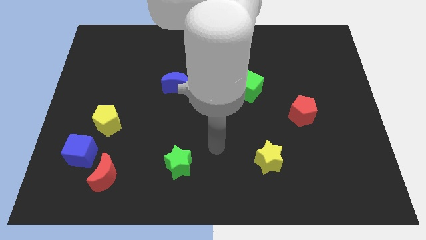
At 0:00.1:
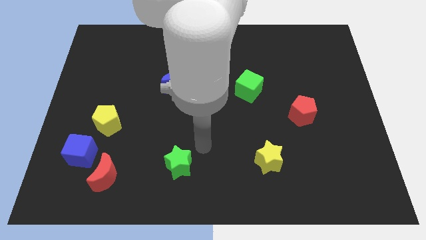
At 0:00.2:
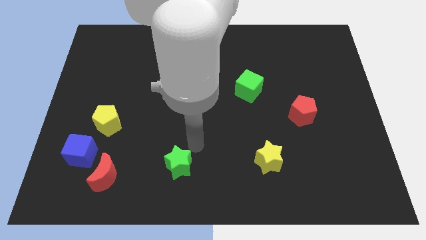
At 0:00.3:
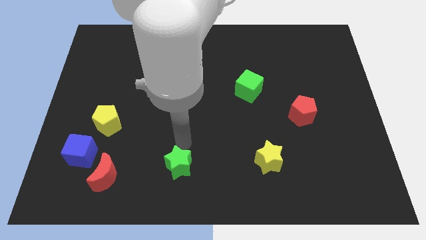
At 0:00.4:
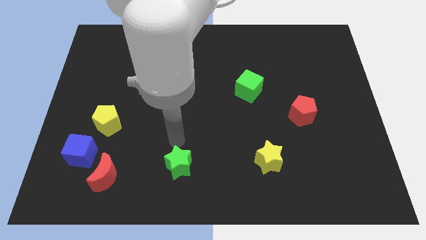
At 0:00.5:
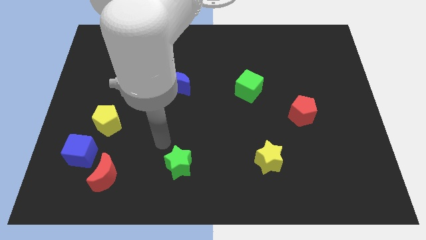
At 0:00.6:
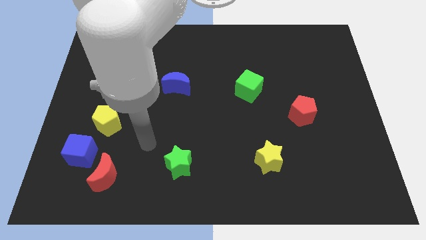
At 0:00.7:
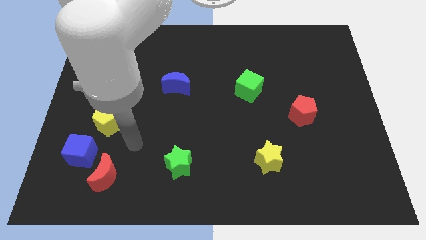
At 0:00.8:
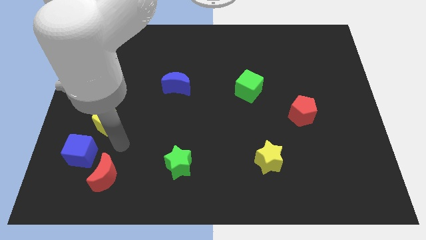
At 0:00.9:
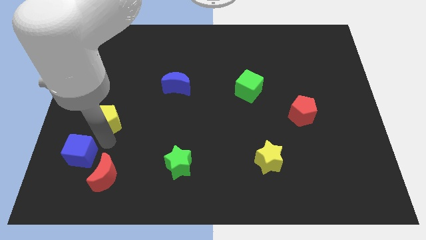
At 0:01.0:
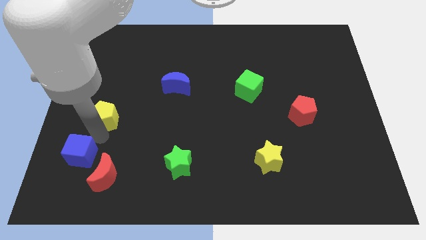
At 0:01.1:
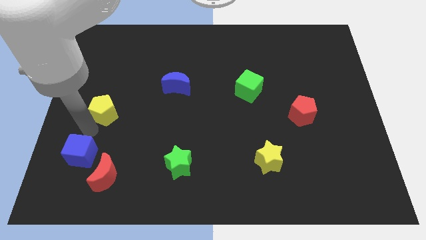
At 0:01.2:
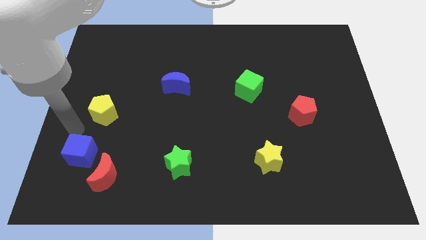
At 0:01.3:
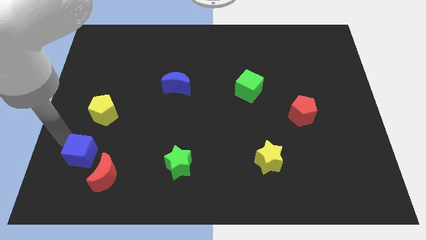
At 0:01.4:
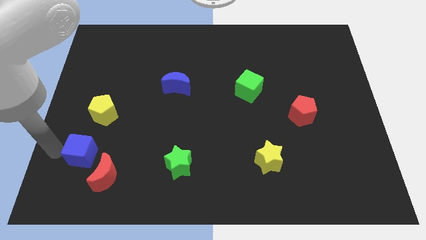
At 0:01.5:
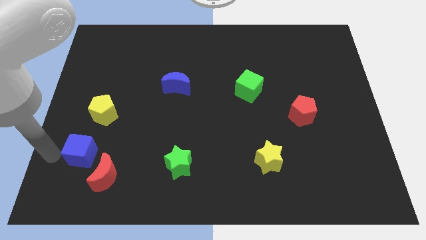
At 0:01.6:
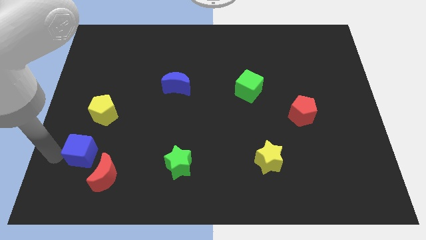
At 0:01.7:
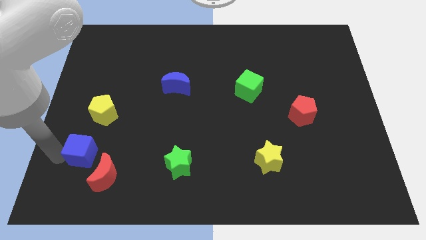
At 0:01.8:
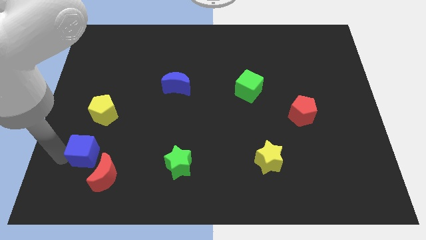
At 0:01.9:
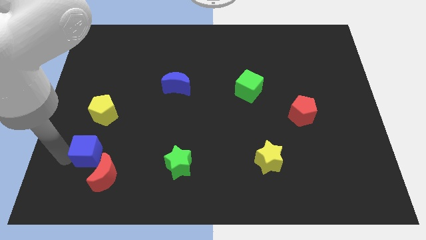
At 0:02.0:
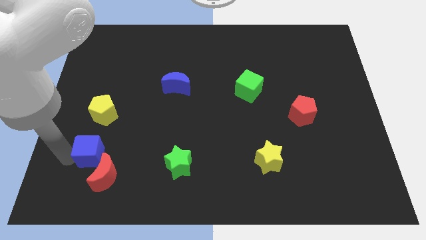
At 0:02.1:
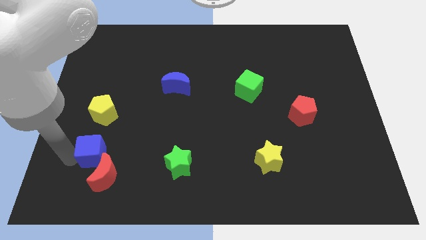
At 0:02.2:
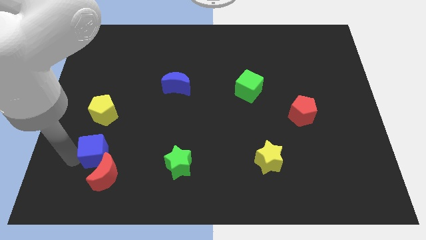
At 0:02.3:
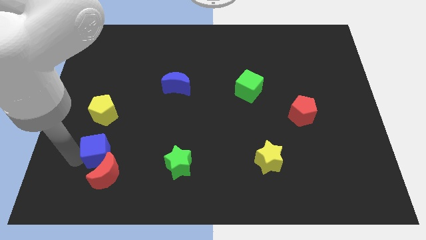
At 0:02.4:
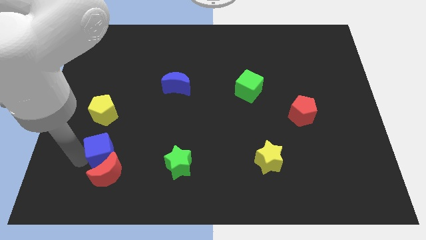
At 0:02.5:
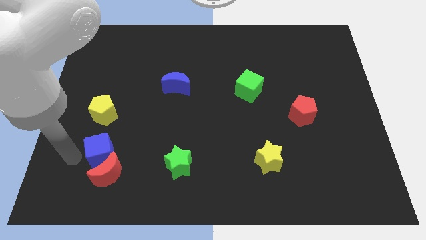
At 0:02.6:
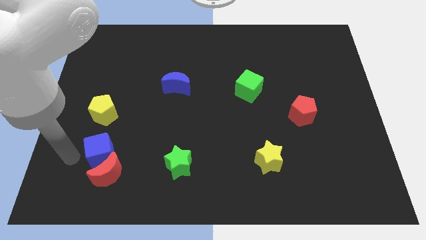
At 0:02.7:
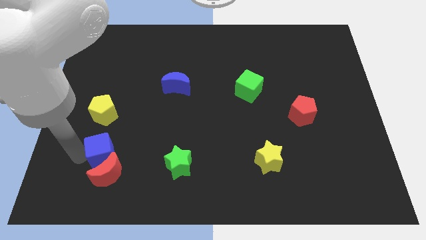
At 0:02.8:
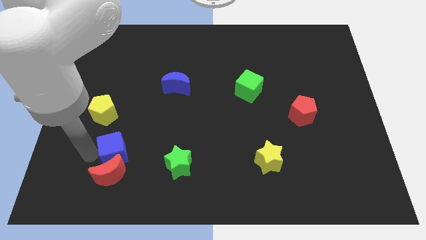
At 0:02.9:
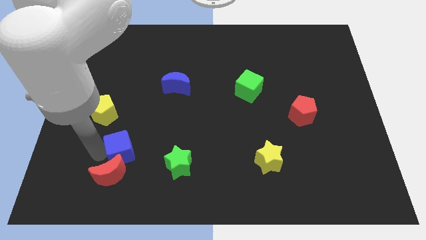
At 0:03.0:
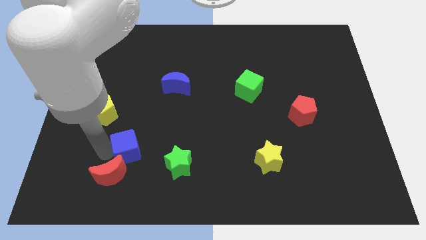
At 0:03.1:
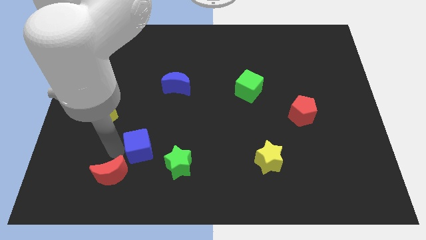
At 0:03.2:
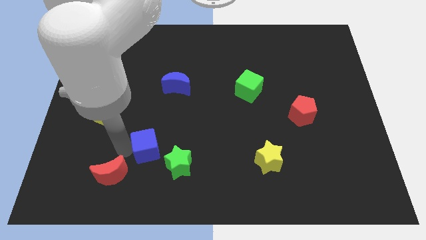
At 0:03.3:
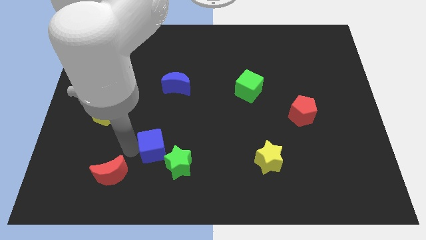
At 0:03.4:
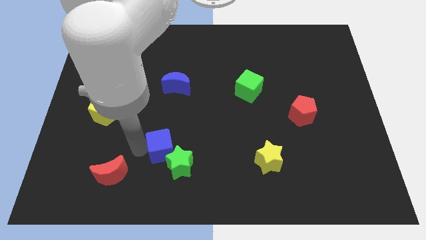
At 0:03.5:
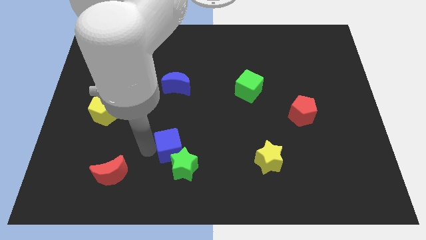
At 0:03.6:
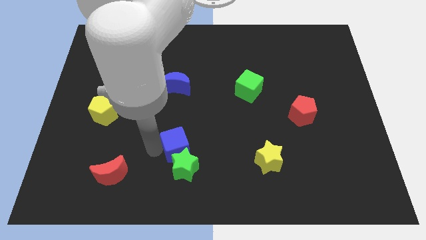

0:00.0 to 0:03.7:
move the blue cube right

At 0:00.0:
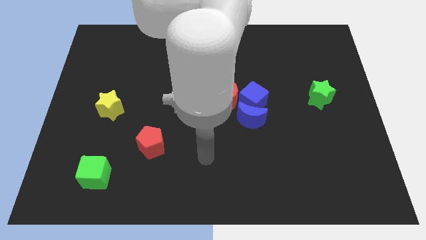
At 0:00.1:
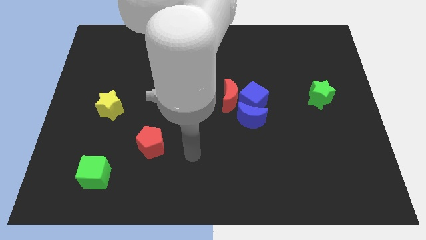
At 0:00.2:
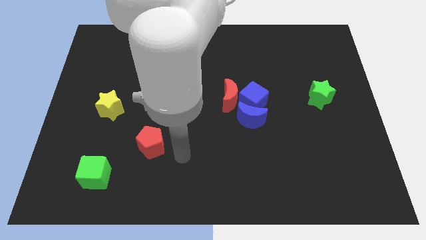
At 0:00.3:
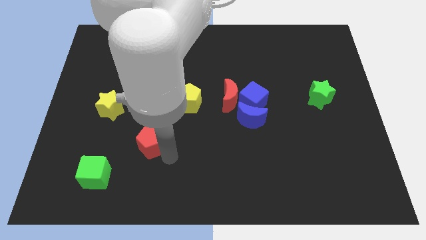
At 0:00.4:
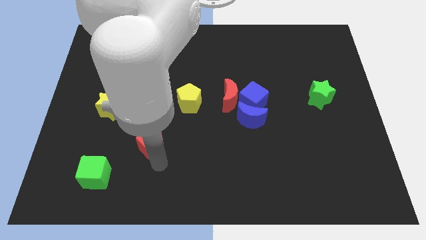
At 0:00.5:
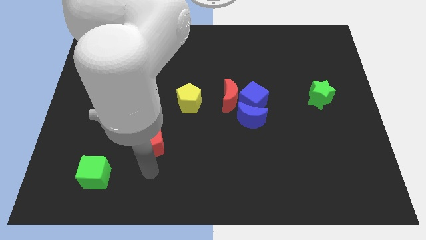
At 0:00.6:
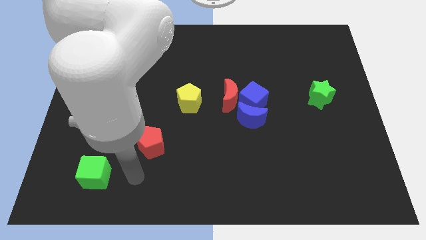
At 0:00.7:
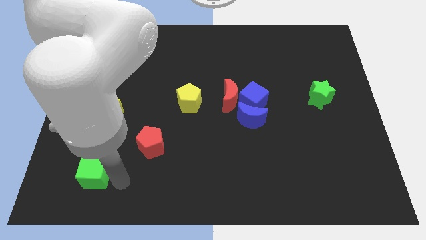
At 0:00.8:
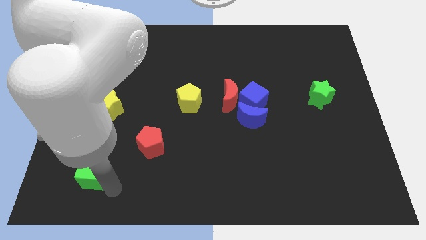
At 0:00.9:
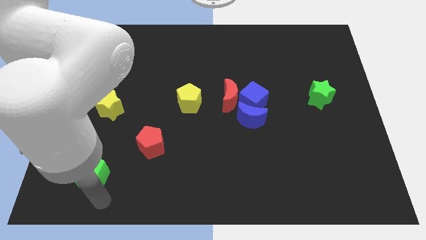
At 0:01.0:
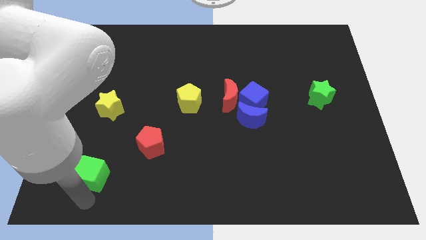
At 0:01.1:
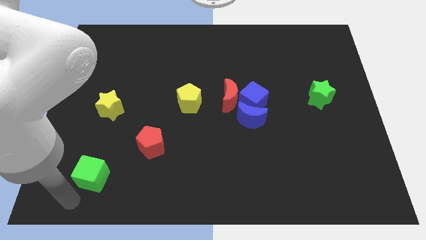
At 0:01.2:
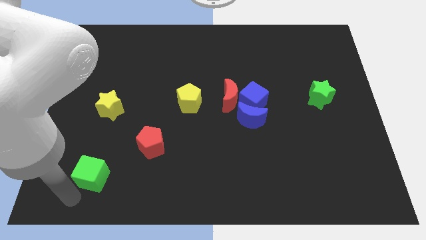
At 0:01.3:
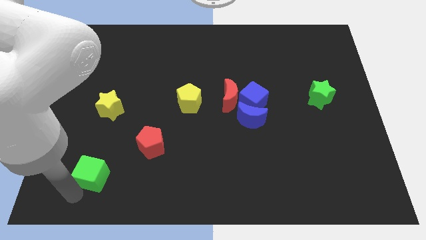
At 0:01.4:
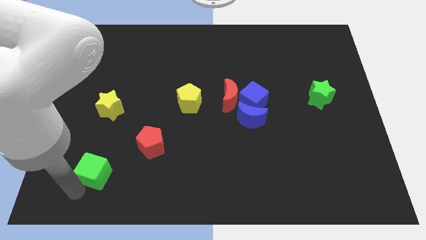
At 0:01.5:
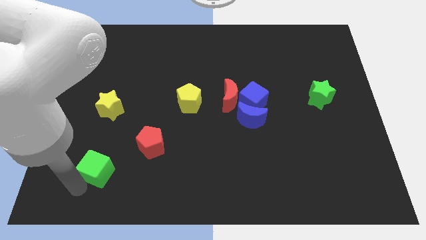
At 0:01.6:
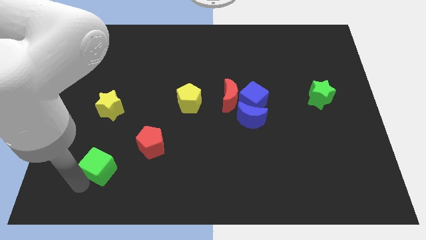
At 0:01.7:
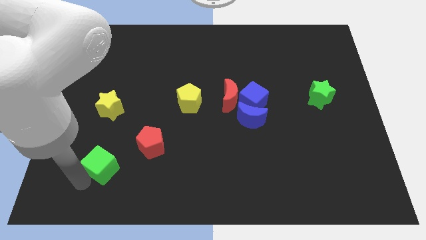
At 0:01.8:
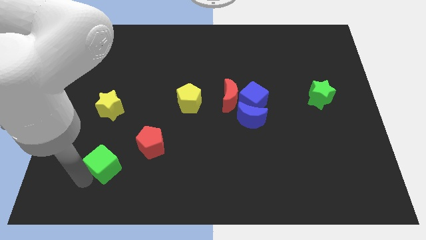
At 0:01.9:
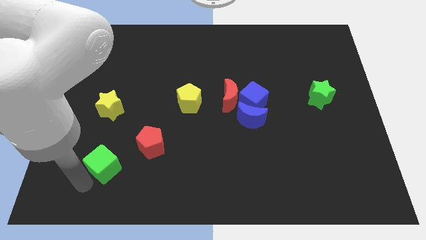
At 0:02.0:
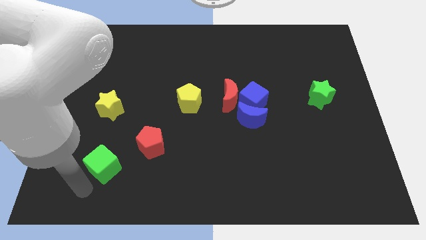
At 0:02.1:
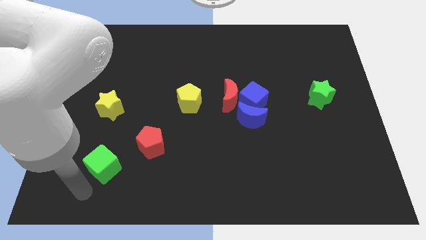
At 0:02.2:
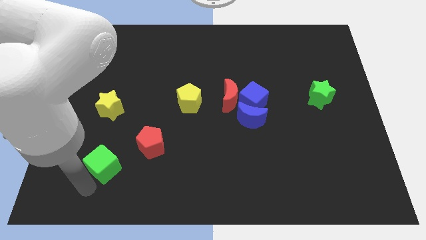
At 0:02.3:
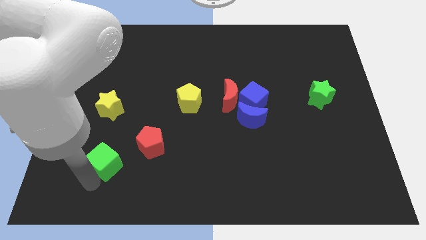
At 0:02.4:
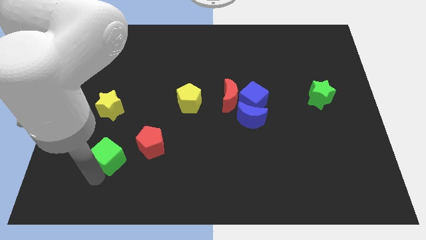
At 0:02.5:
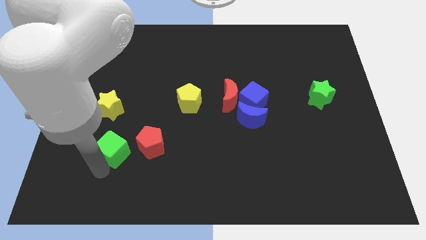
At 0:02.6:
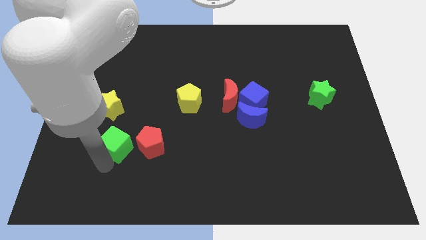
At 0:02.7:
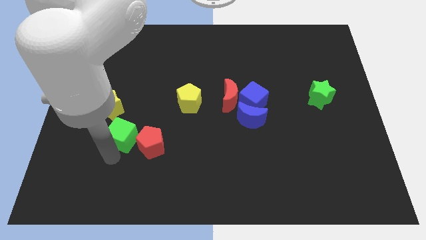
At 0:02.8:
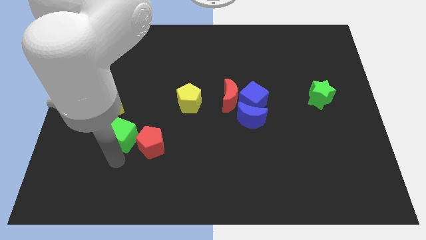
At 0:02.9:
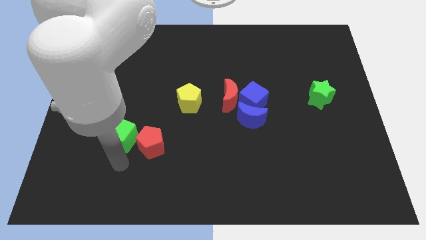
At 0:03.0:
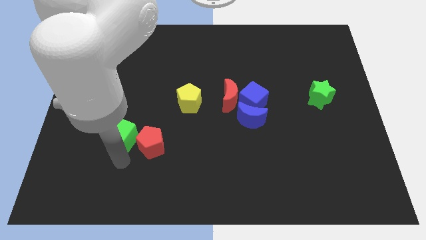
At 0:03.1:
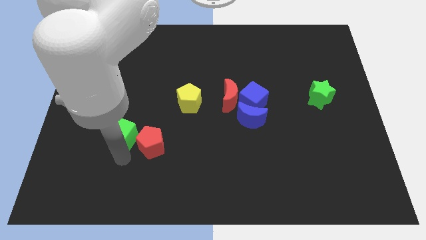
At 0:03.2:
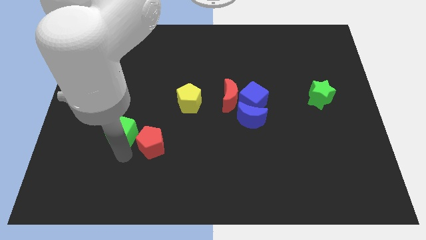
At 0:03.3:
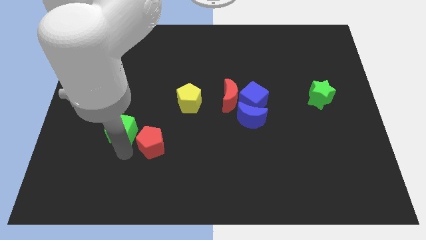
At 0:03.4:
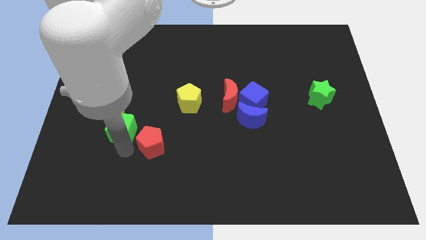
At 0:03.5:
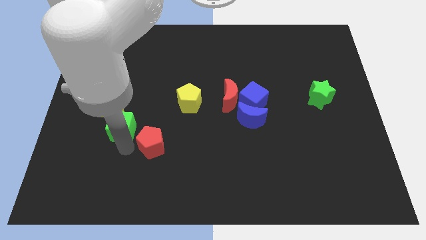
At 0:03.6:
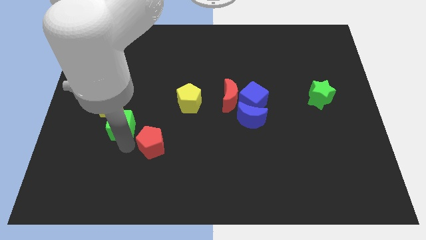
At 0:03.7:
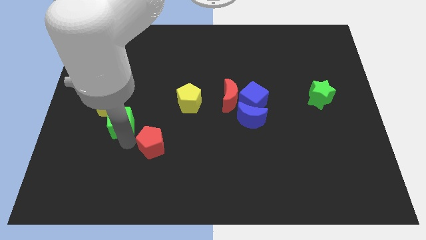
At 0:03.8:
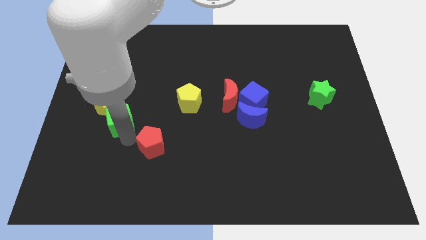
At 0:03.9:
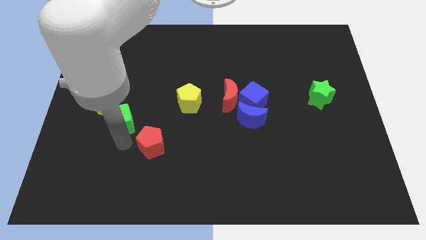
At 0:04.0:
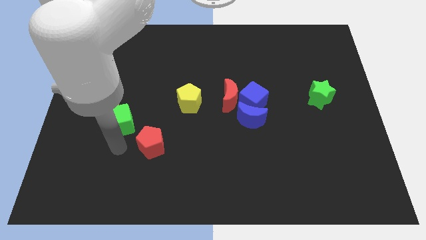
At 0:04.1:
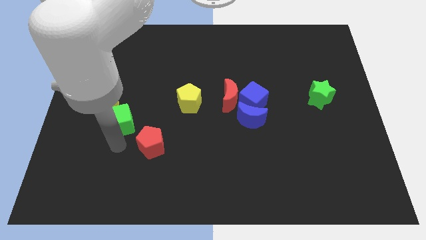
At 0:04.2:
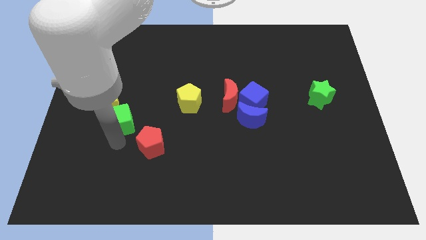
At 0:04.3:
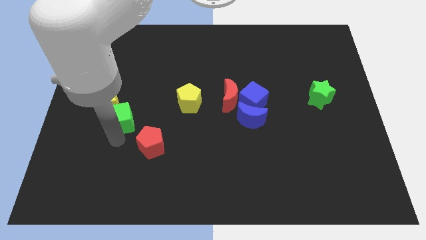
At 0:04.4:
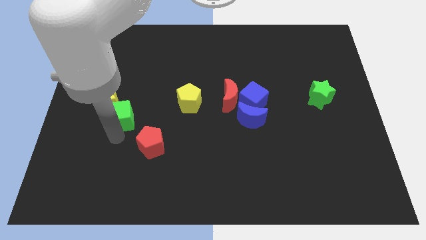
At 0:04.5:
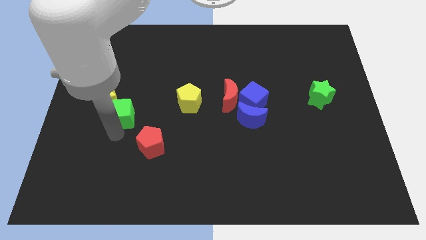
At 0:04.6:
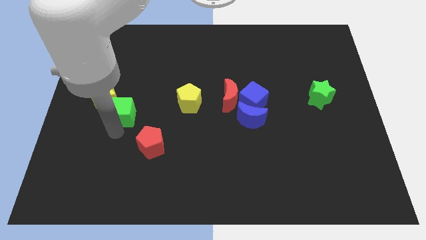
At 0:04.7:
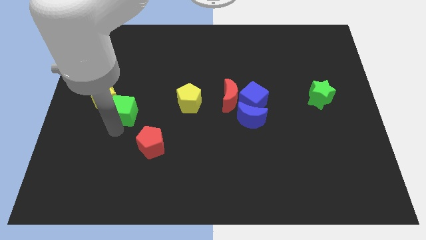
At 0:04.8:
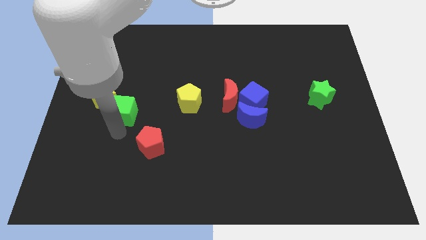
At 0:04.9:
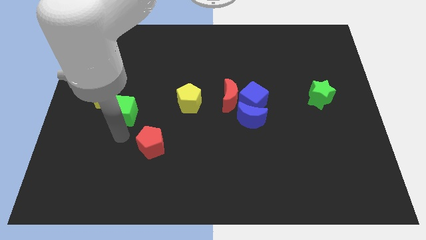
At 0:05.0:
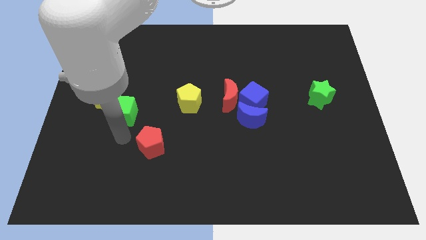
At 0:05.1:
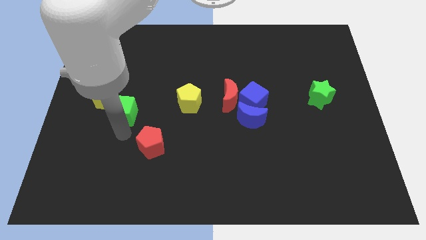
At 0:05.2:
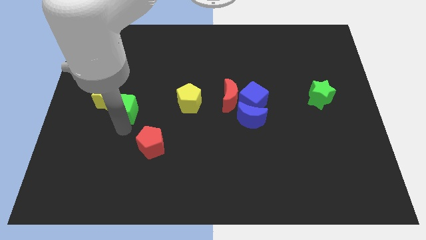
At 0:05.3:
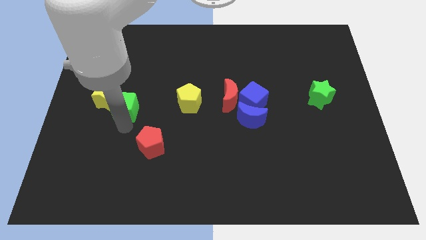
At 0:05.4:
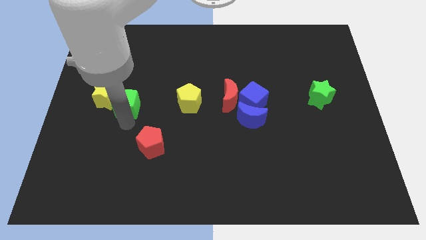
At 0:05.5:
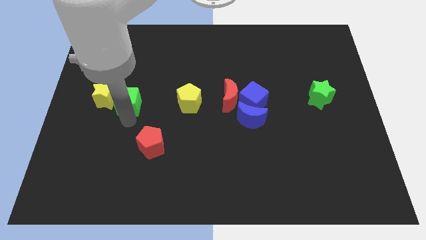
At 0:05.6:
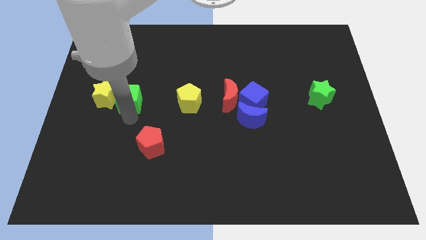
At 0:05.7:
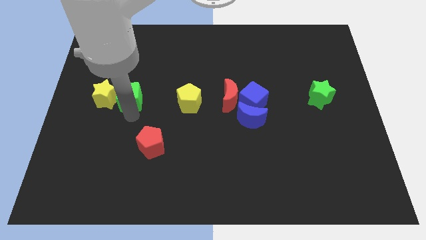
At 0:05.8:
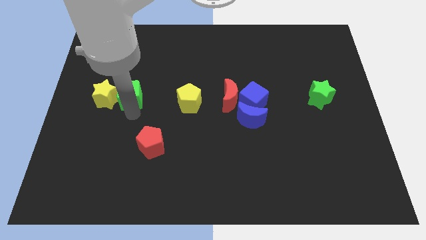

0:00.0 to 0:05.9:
move the green cube up
